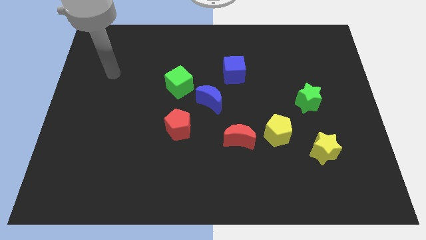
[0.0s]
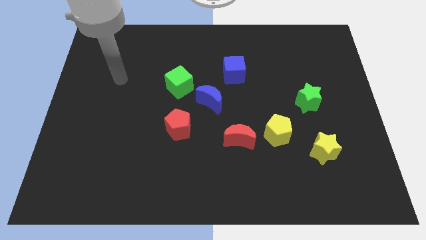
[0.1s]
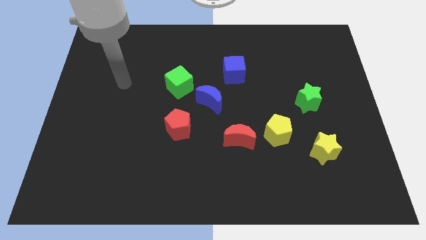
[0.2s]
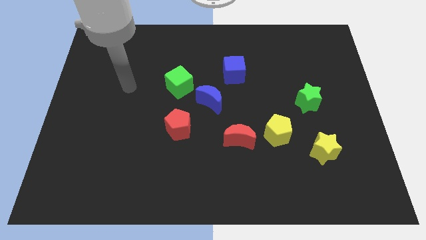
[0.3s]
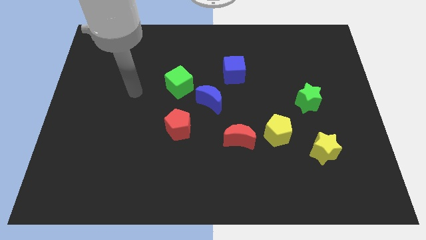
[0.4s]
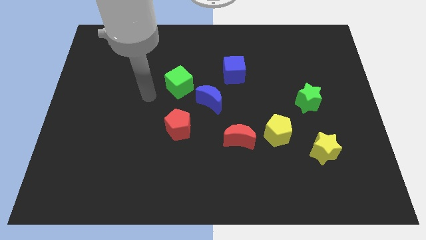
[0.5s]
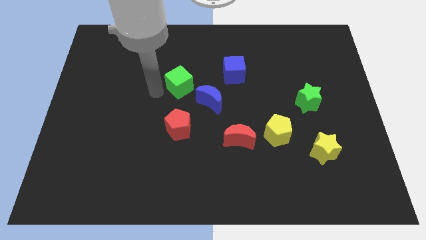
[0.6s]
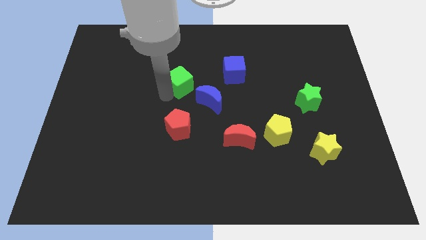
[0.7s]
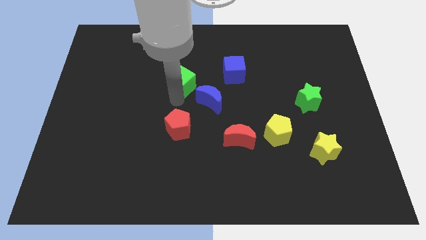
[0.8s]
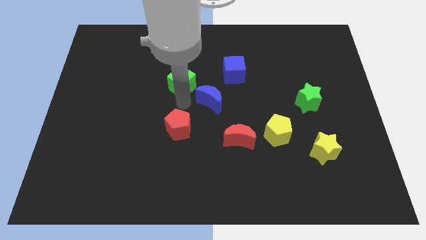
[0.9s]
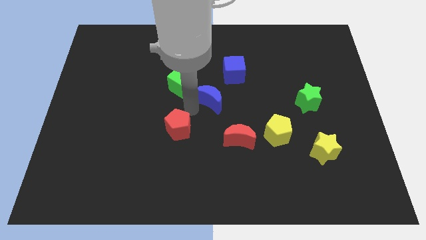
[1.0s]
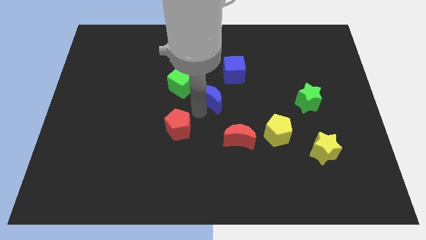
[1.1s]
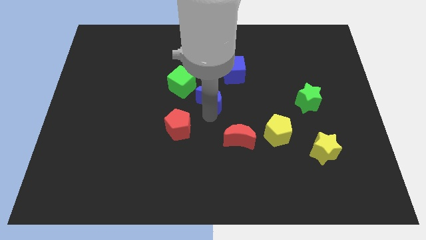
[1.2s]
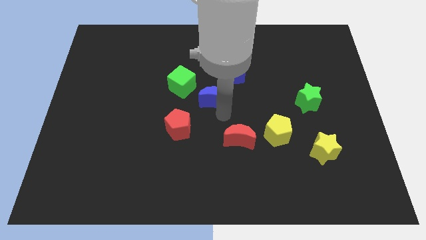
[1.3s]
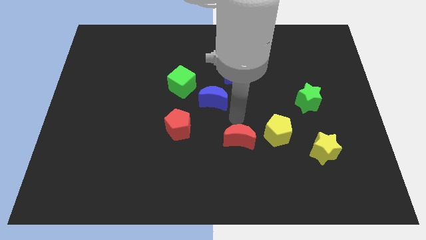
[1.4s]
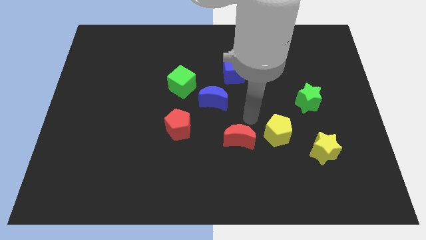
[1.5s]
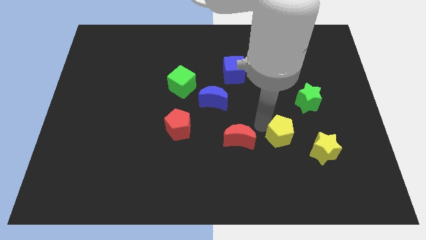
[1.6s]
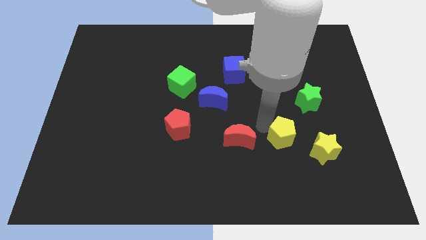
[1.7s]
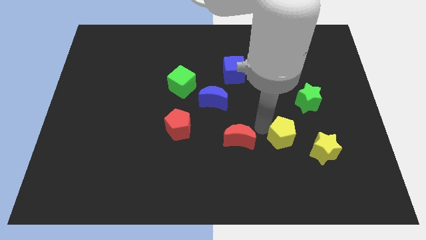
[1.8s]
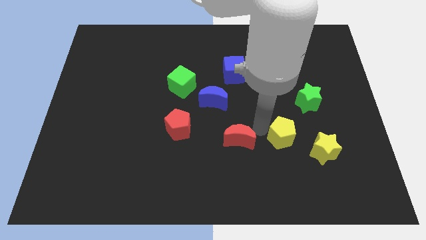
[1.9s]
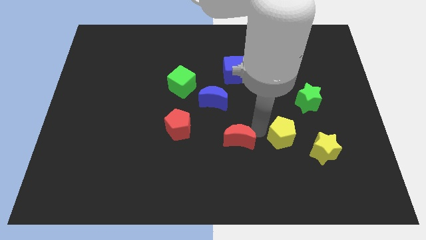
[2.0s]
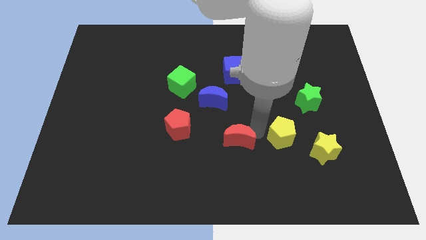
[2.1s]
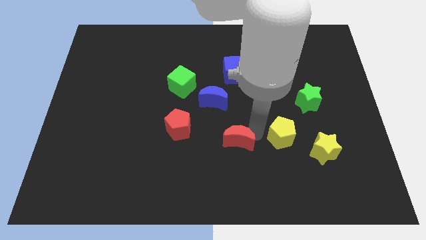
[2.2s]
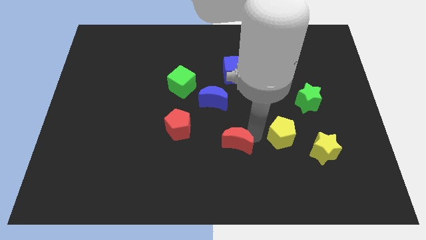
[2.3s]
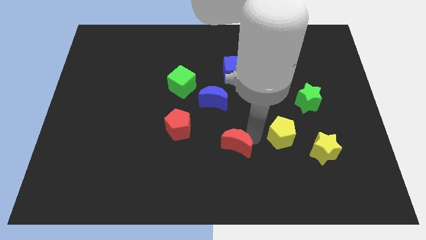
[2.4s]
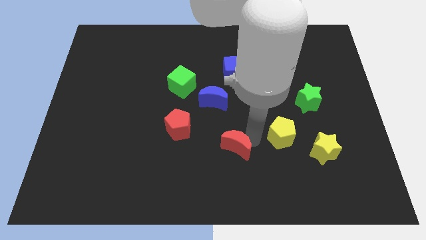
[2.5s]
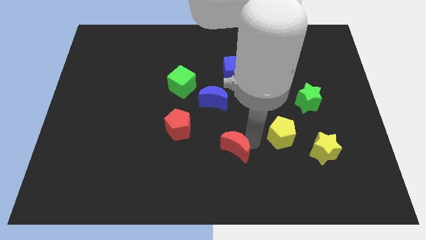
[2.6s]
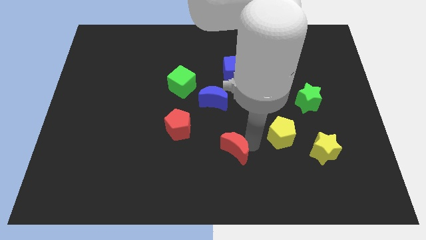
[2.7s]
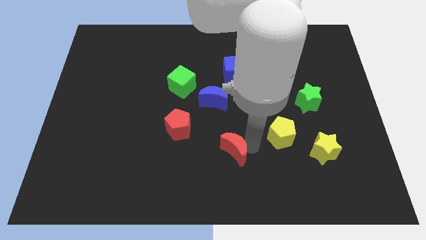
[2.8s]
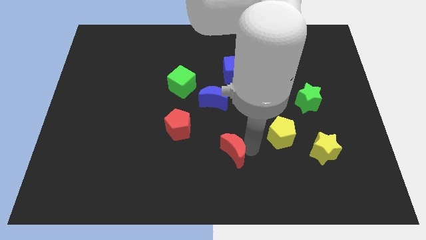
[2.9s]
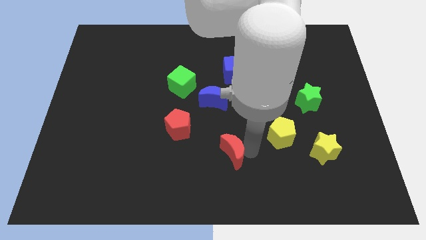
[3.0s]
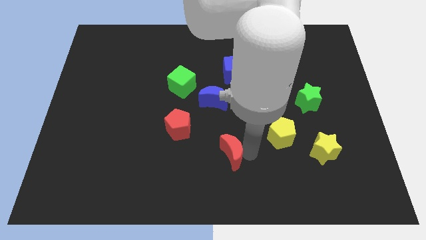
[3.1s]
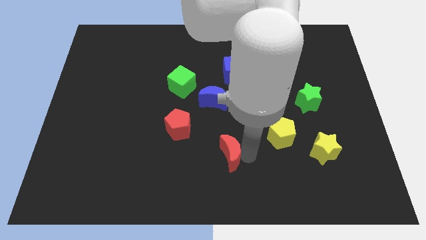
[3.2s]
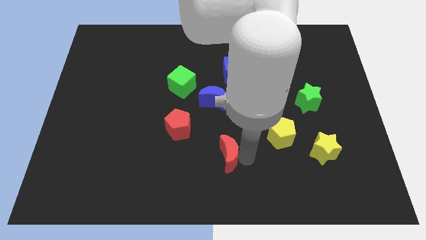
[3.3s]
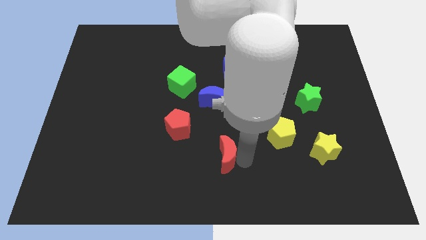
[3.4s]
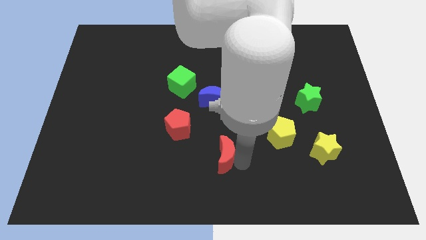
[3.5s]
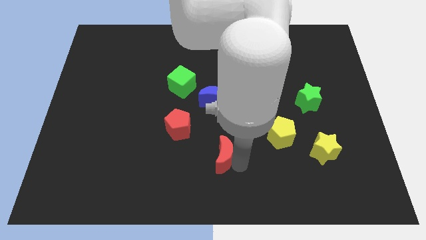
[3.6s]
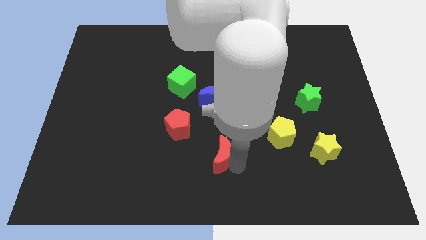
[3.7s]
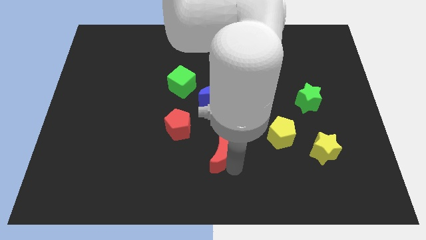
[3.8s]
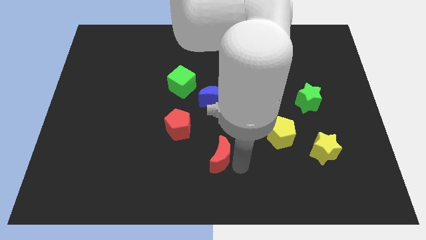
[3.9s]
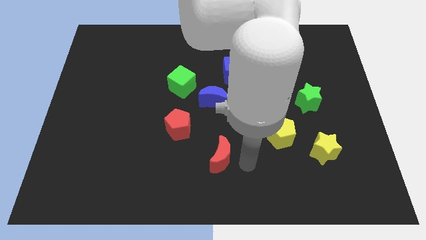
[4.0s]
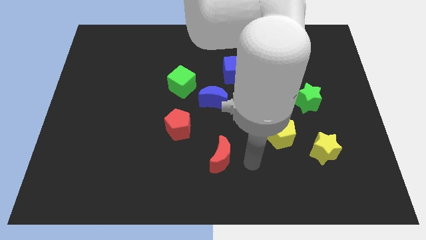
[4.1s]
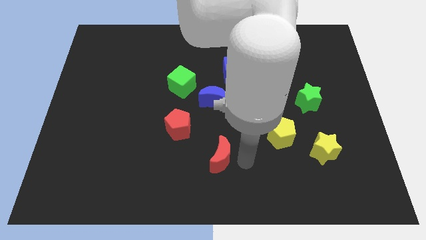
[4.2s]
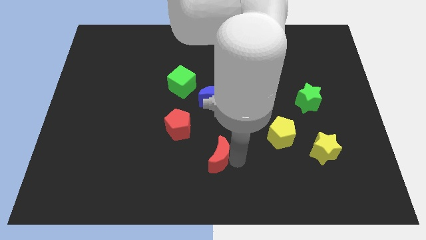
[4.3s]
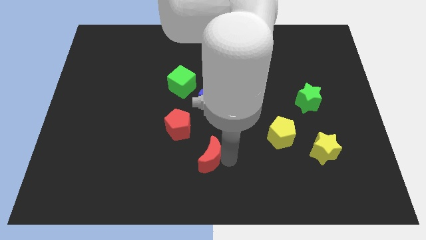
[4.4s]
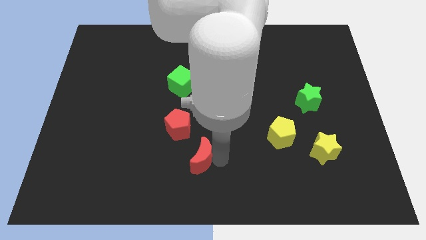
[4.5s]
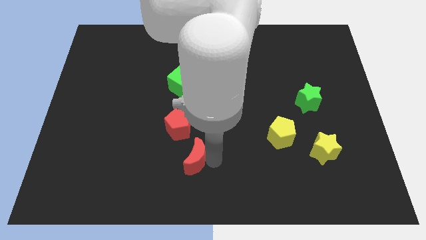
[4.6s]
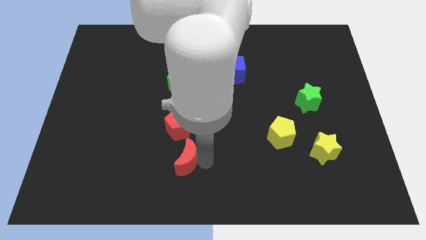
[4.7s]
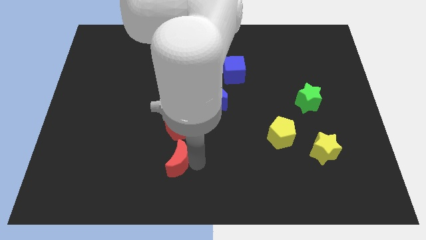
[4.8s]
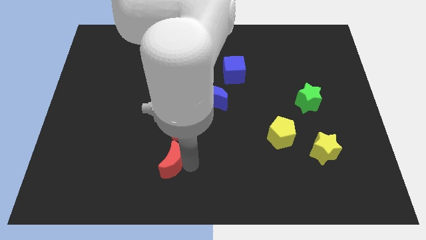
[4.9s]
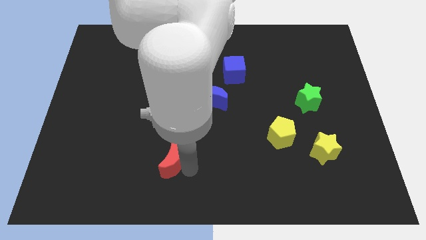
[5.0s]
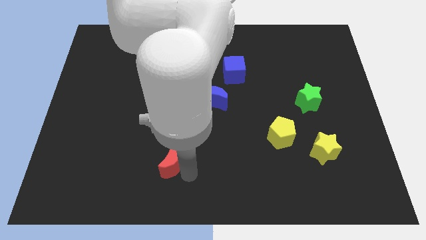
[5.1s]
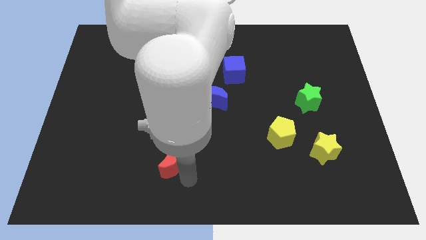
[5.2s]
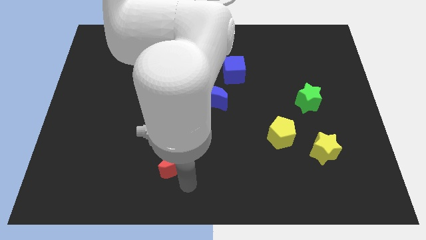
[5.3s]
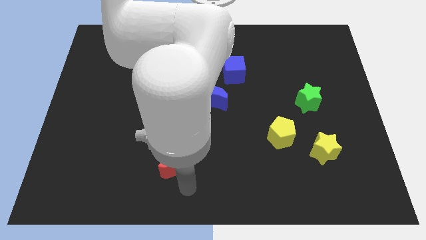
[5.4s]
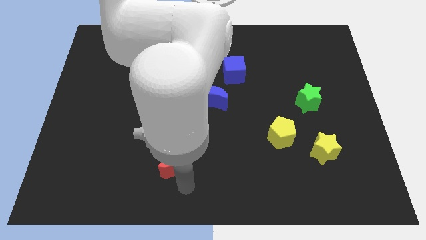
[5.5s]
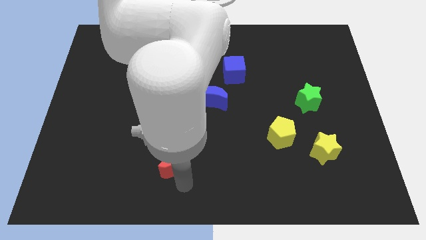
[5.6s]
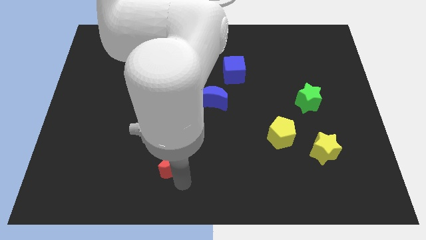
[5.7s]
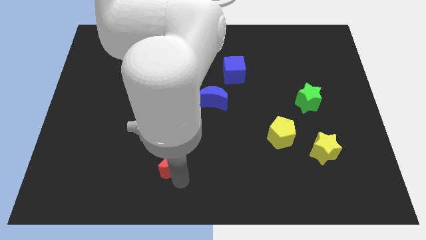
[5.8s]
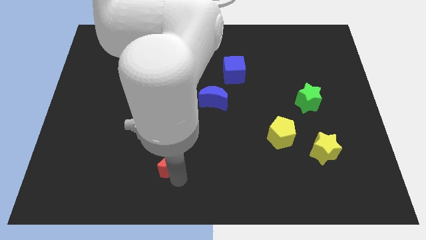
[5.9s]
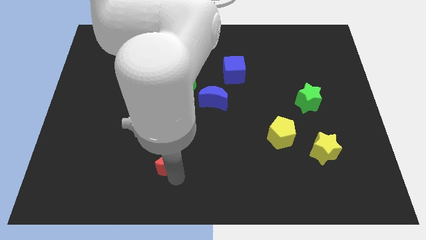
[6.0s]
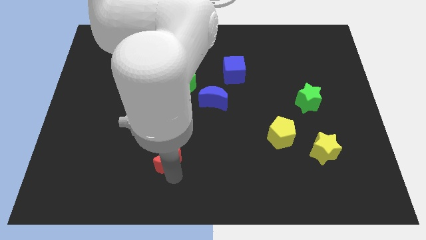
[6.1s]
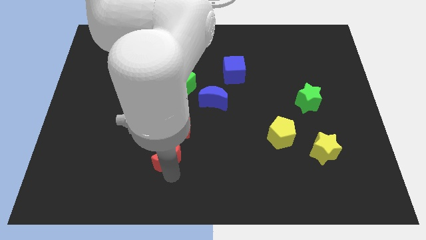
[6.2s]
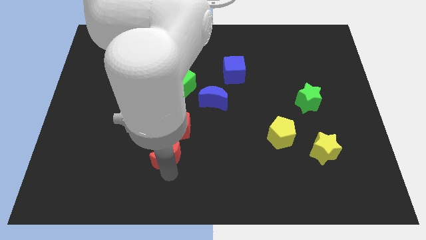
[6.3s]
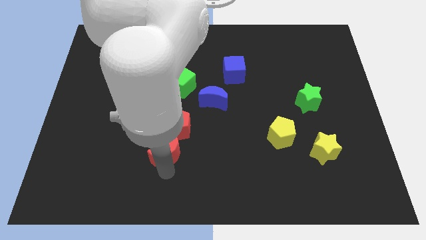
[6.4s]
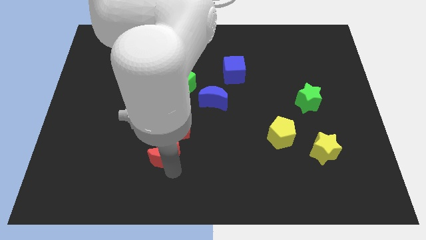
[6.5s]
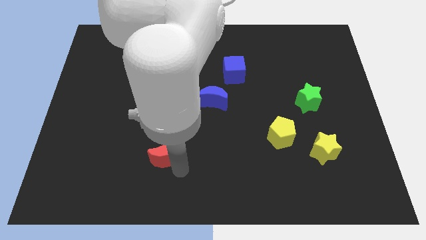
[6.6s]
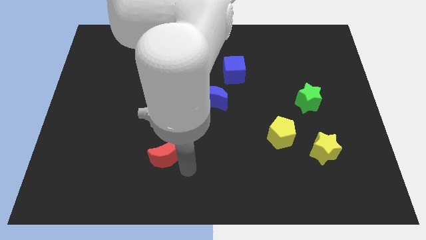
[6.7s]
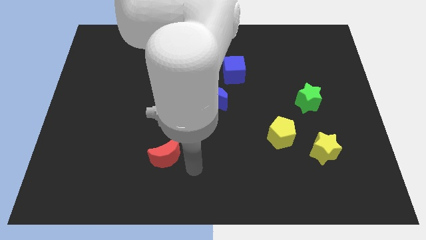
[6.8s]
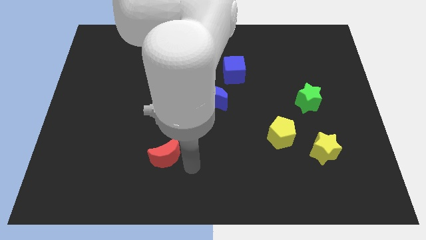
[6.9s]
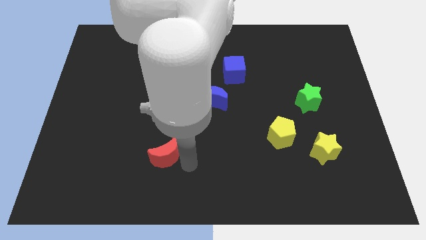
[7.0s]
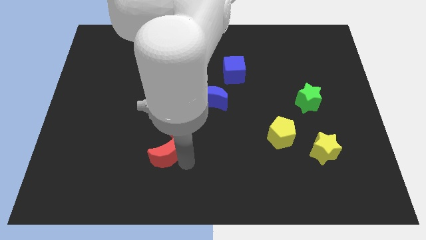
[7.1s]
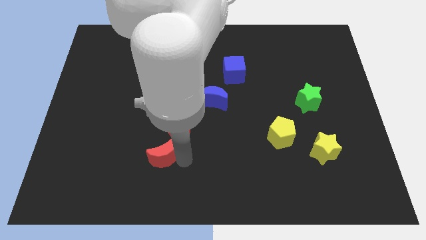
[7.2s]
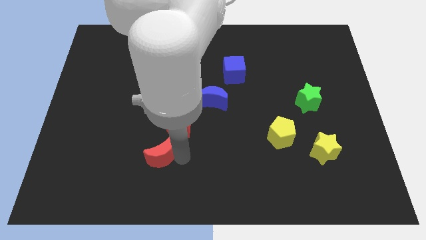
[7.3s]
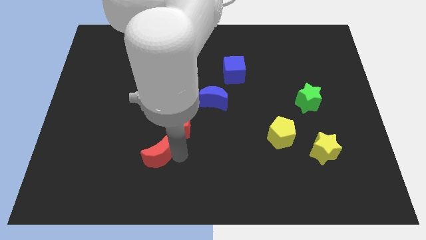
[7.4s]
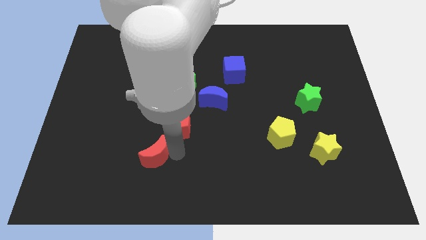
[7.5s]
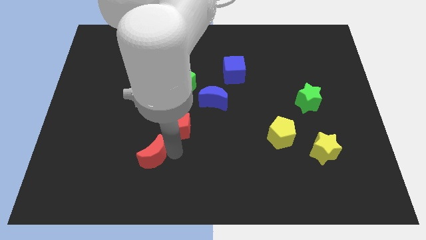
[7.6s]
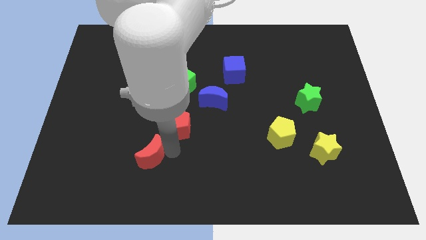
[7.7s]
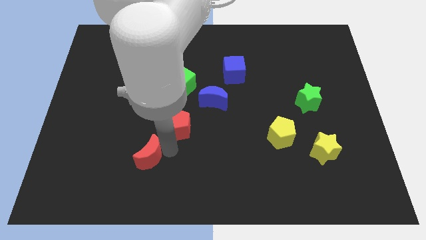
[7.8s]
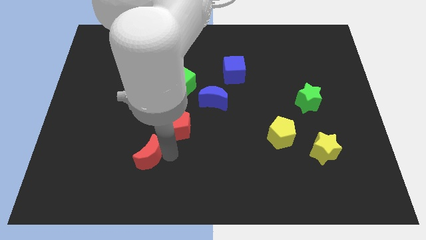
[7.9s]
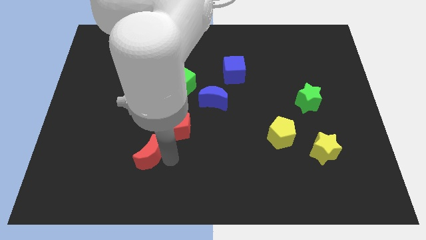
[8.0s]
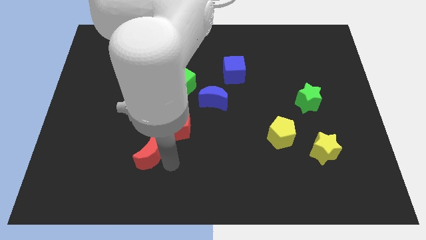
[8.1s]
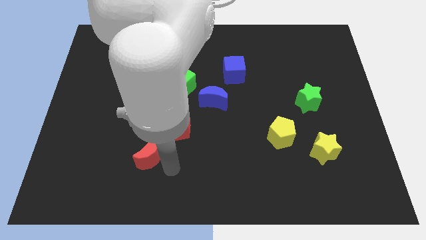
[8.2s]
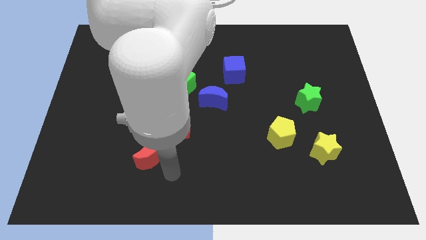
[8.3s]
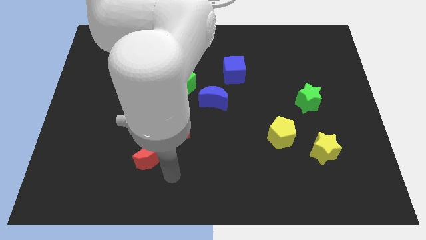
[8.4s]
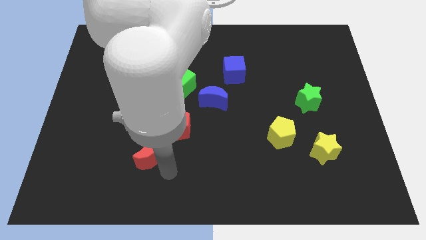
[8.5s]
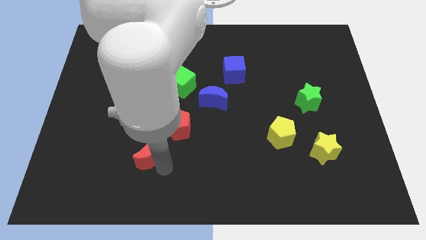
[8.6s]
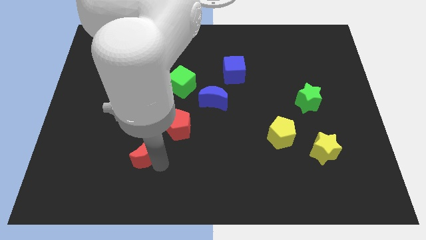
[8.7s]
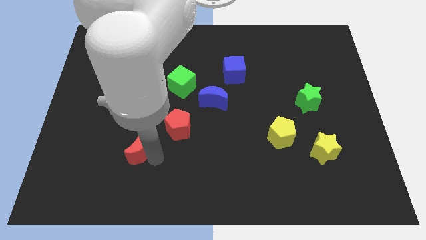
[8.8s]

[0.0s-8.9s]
push the red moon to the left
